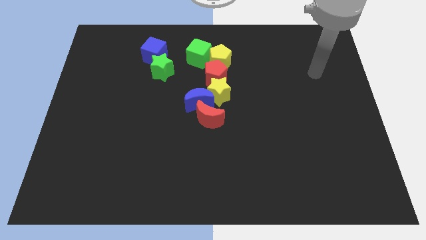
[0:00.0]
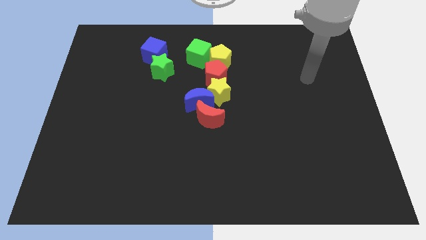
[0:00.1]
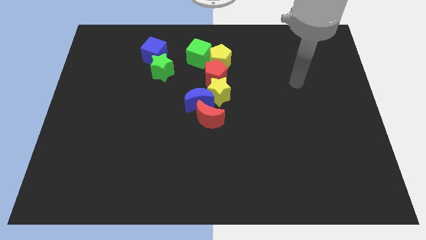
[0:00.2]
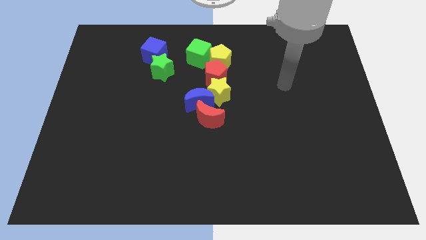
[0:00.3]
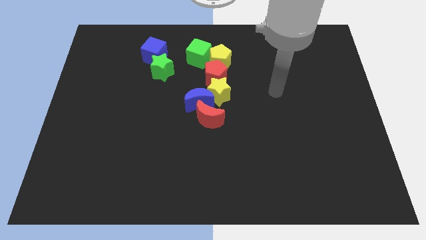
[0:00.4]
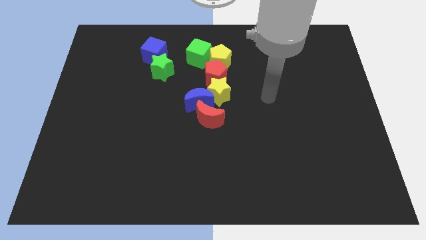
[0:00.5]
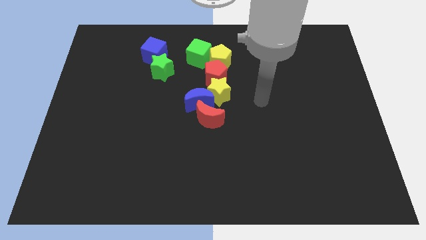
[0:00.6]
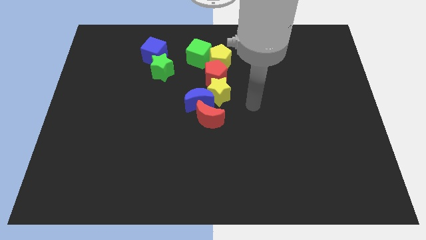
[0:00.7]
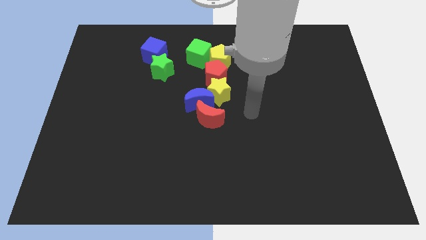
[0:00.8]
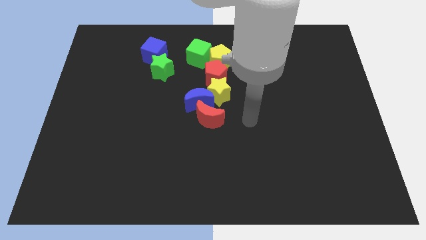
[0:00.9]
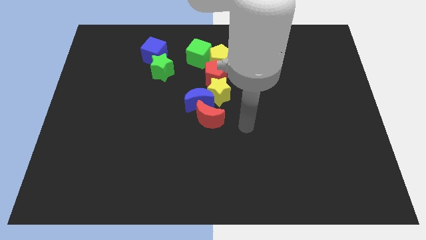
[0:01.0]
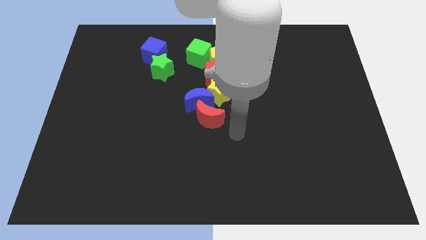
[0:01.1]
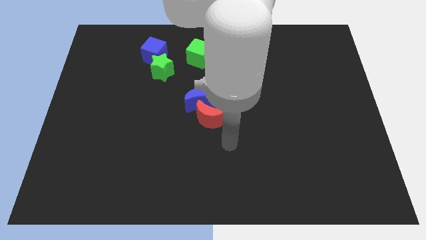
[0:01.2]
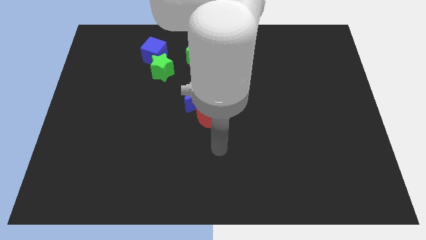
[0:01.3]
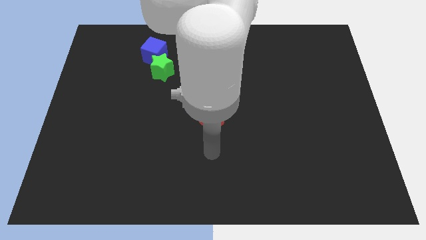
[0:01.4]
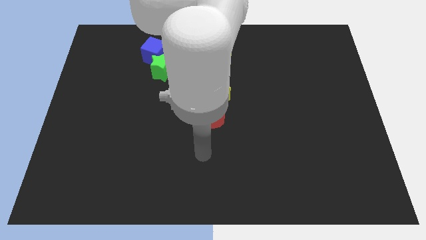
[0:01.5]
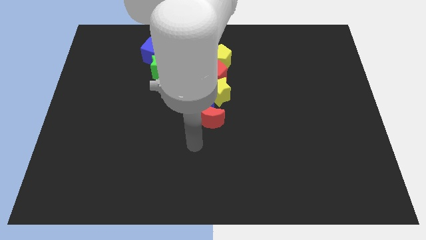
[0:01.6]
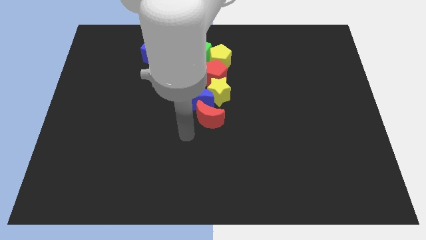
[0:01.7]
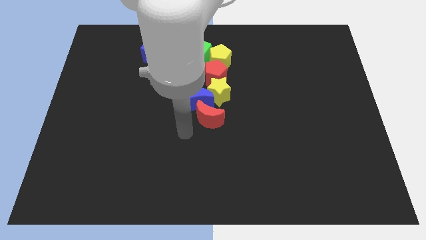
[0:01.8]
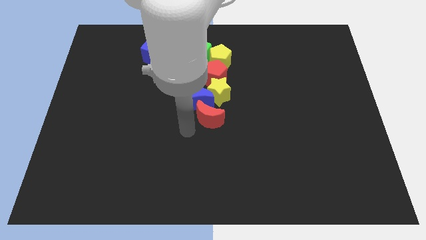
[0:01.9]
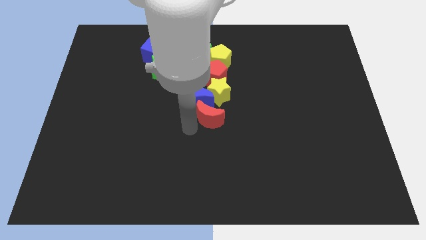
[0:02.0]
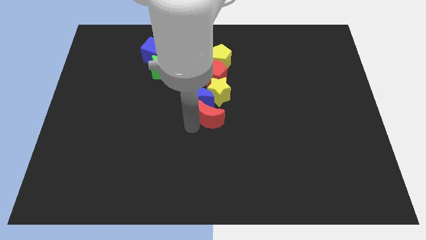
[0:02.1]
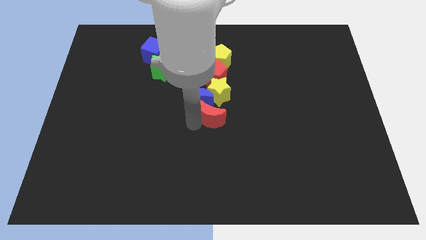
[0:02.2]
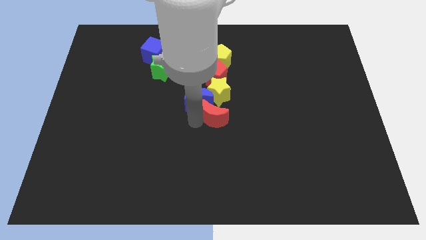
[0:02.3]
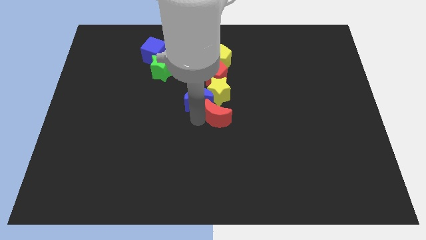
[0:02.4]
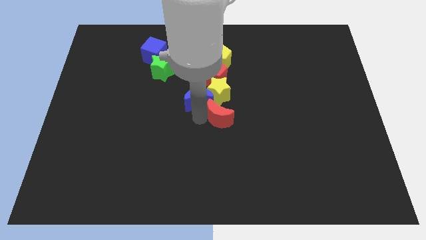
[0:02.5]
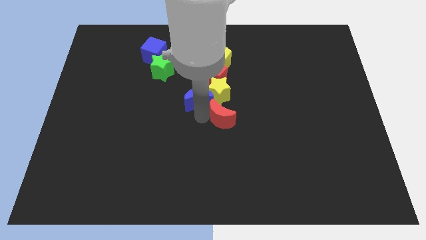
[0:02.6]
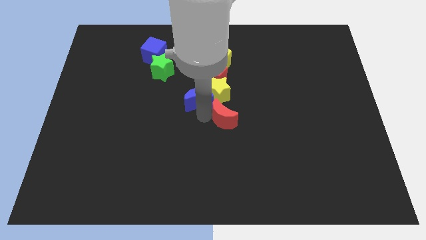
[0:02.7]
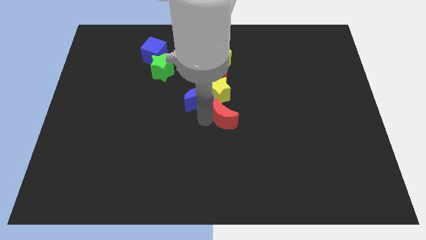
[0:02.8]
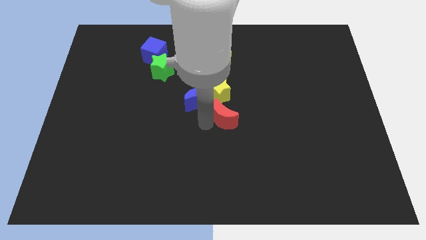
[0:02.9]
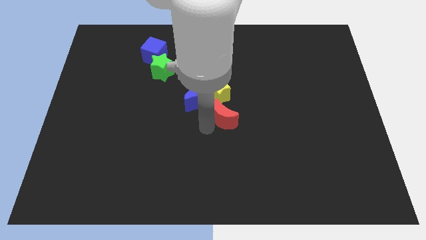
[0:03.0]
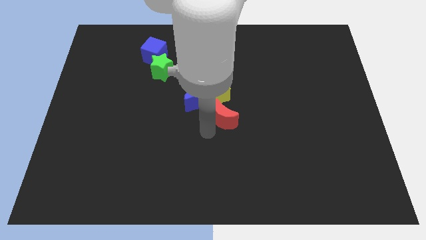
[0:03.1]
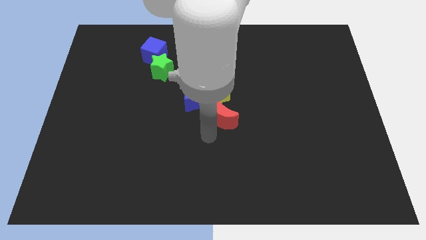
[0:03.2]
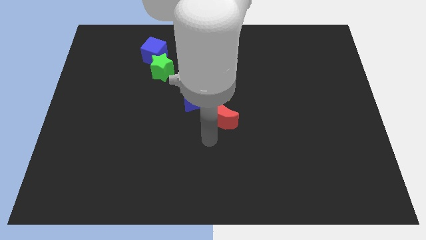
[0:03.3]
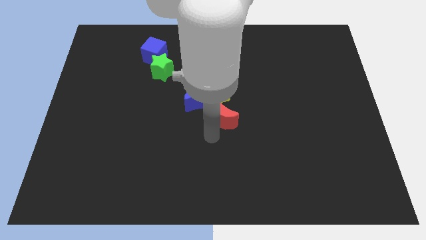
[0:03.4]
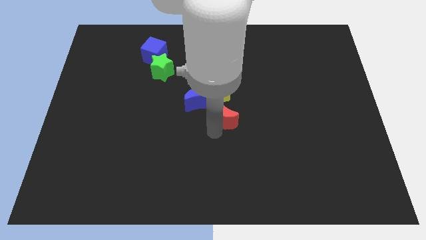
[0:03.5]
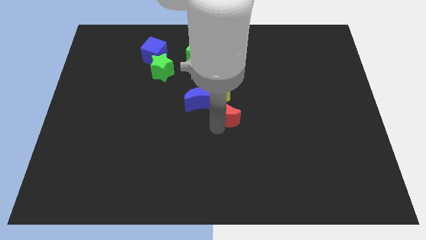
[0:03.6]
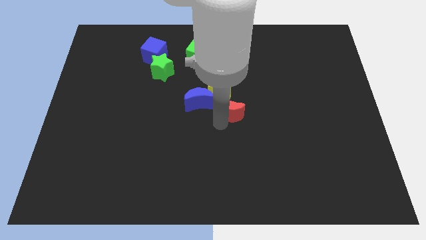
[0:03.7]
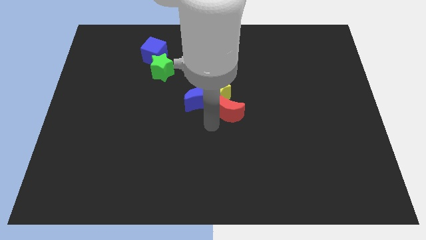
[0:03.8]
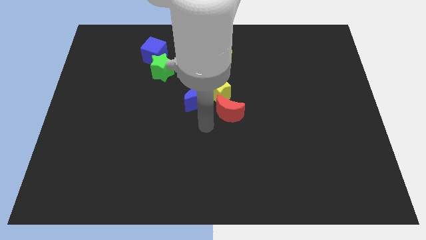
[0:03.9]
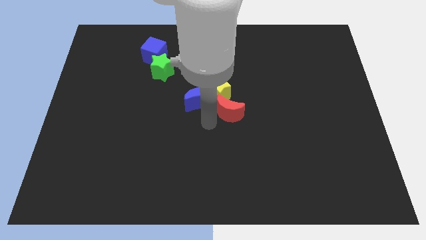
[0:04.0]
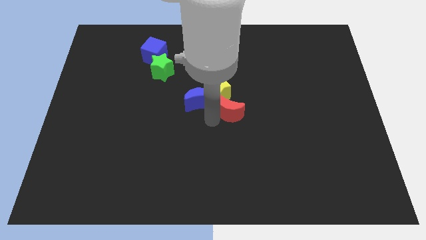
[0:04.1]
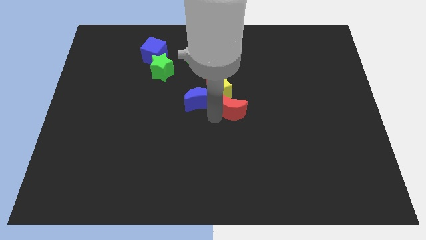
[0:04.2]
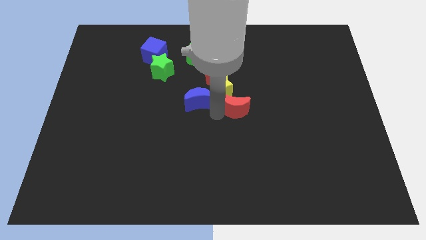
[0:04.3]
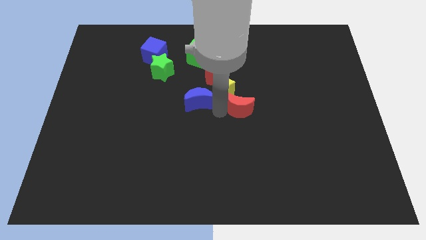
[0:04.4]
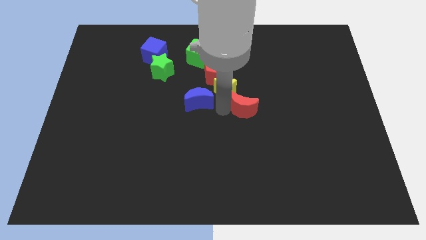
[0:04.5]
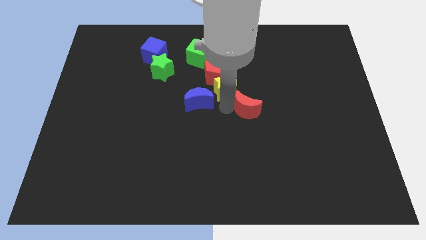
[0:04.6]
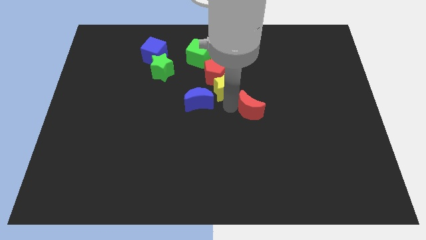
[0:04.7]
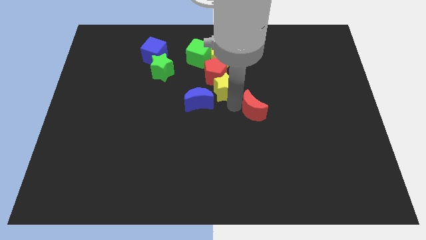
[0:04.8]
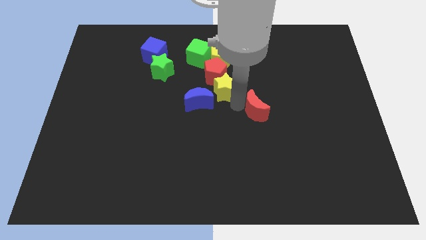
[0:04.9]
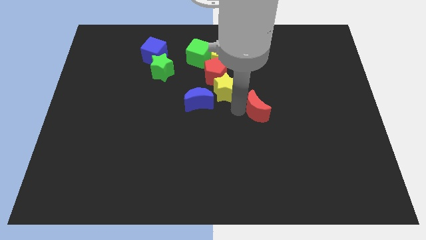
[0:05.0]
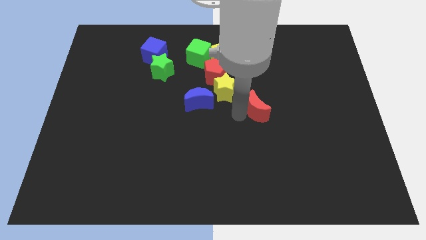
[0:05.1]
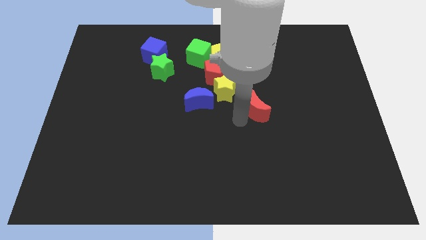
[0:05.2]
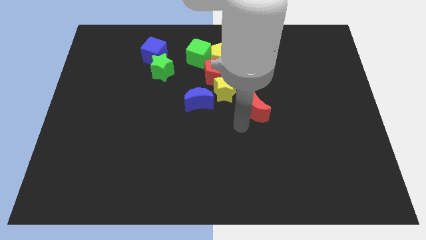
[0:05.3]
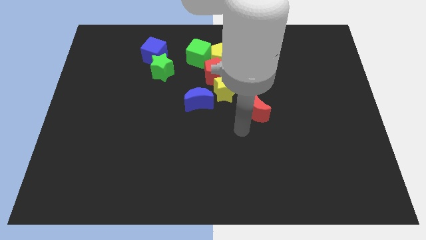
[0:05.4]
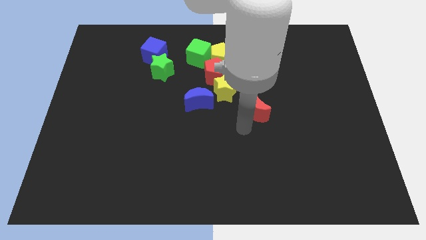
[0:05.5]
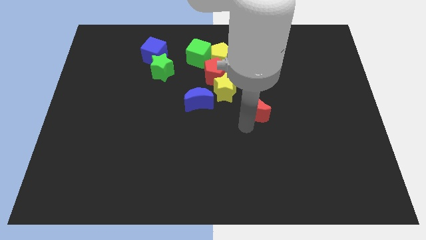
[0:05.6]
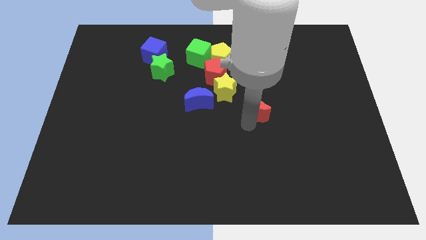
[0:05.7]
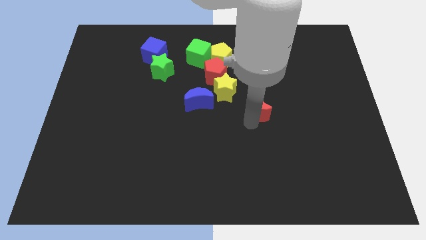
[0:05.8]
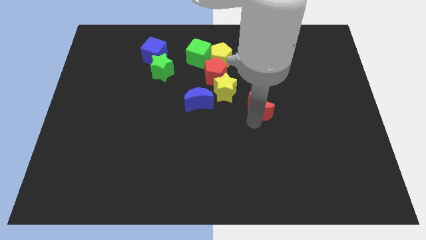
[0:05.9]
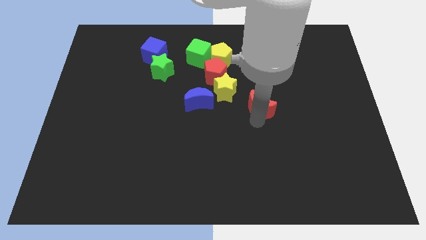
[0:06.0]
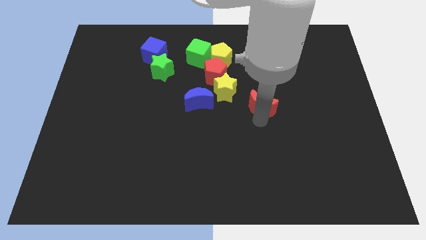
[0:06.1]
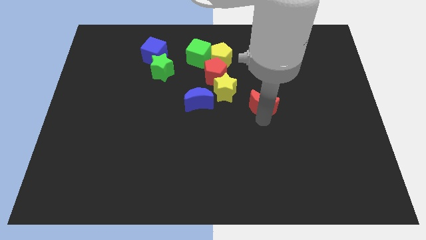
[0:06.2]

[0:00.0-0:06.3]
move the red moon just right of the yellow star
